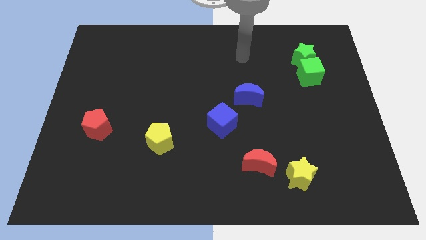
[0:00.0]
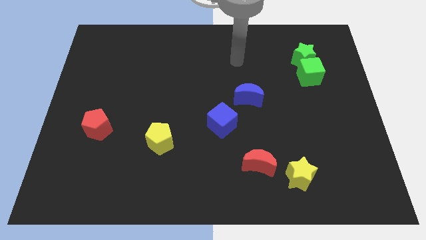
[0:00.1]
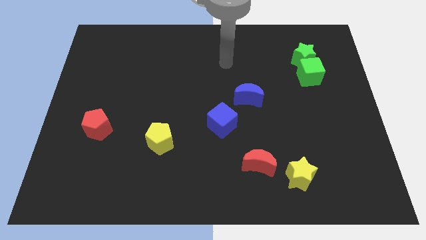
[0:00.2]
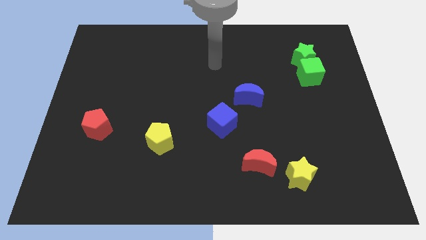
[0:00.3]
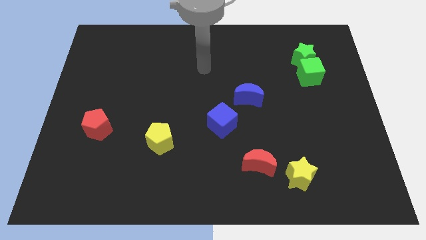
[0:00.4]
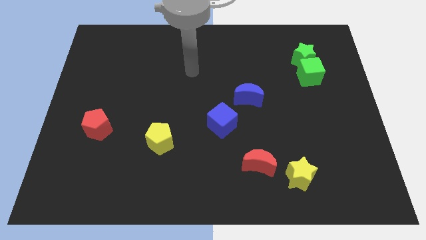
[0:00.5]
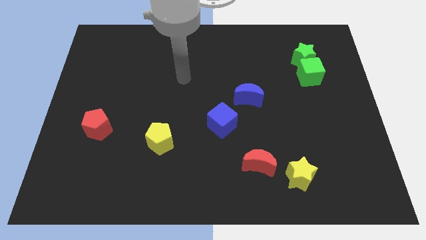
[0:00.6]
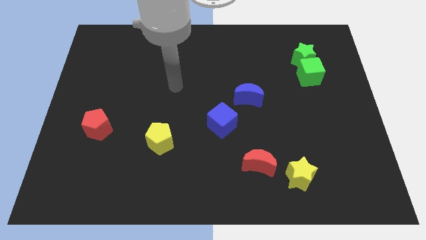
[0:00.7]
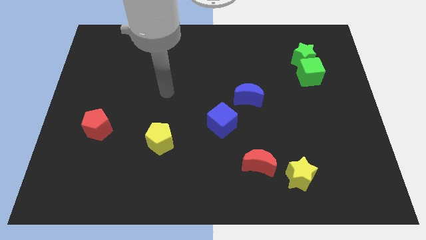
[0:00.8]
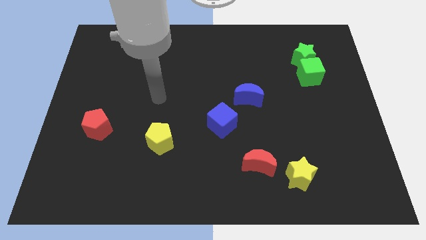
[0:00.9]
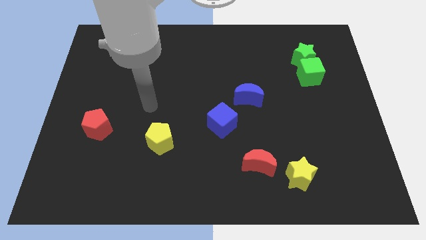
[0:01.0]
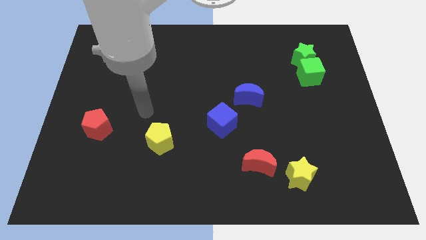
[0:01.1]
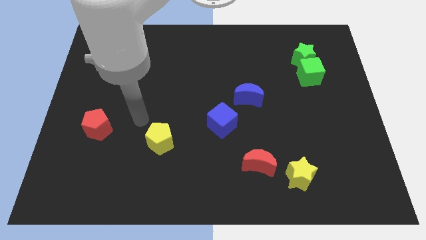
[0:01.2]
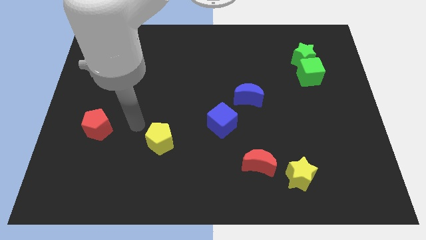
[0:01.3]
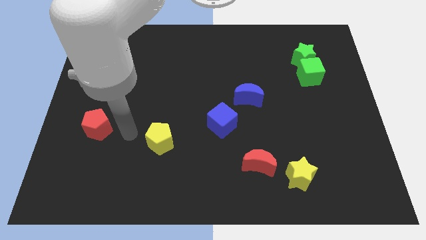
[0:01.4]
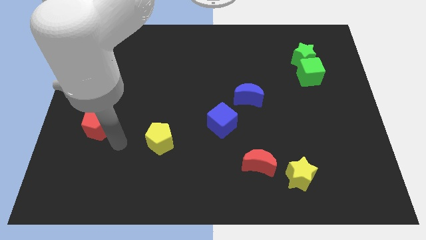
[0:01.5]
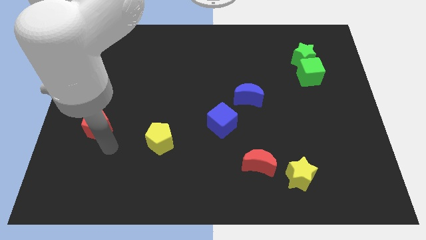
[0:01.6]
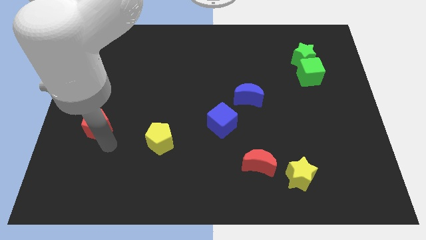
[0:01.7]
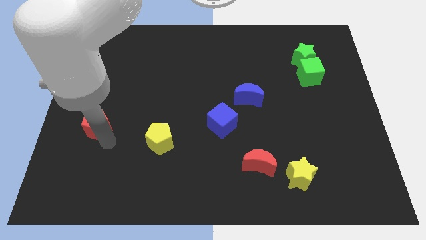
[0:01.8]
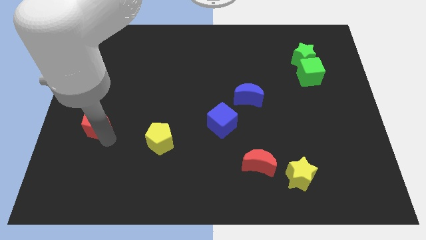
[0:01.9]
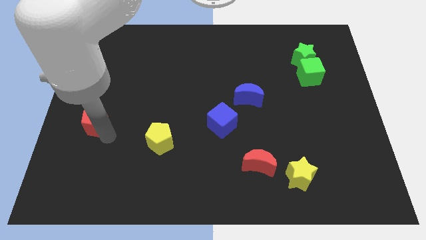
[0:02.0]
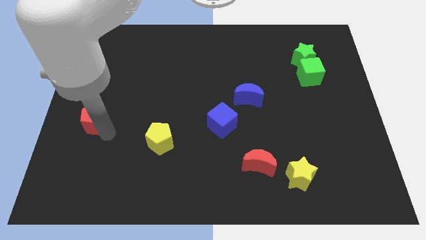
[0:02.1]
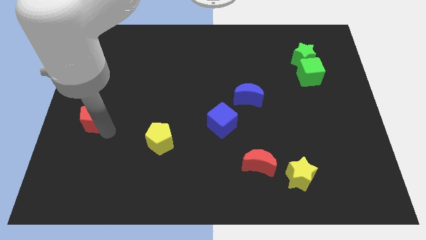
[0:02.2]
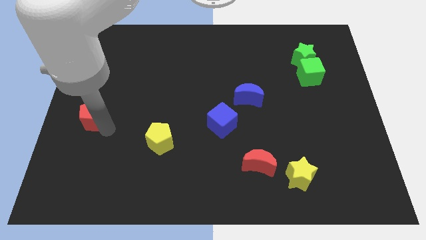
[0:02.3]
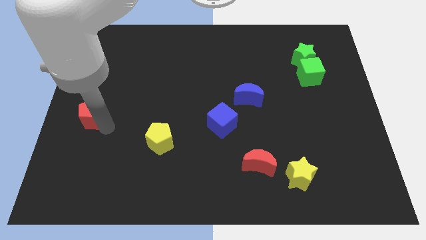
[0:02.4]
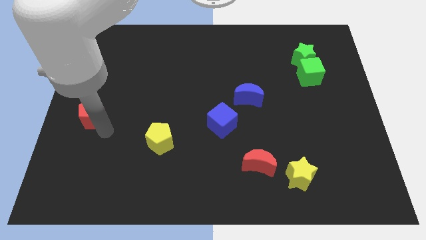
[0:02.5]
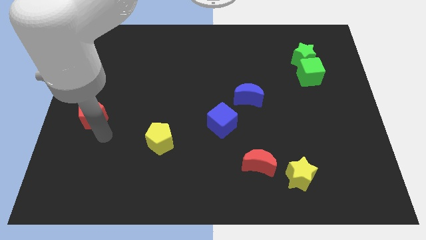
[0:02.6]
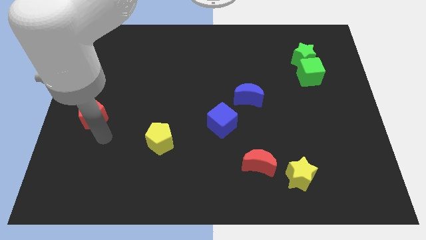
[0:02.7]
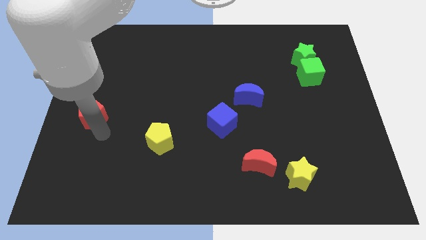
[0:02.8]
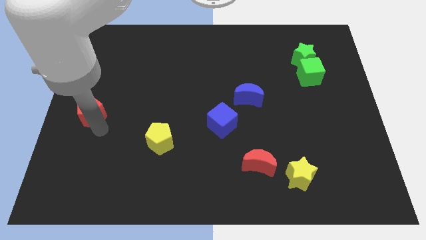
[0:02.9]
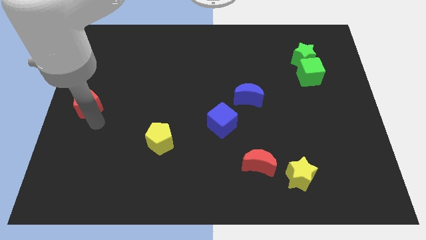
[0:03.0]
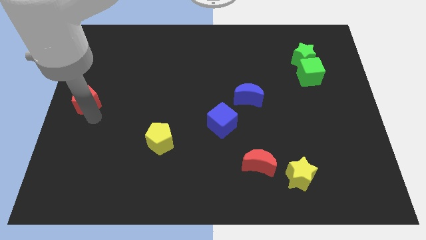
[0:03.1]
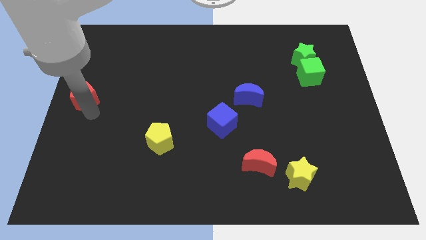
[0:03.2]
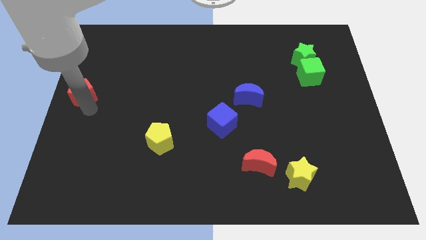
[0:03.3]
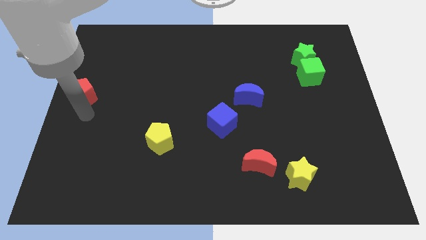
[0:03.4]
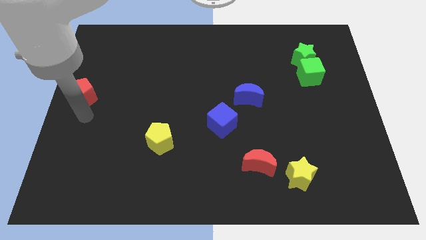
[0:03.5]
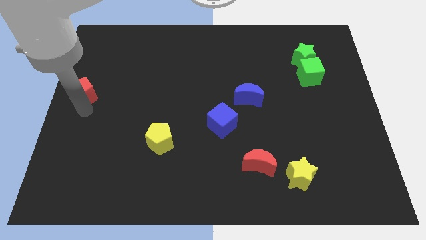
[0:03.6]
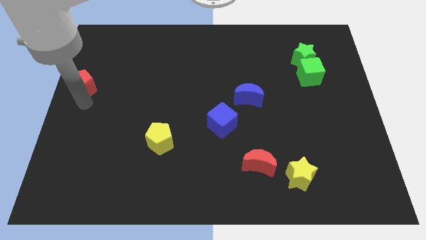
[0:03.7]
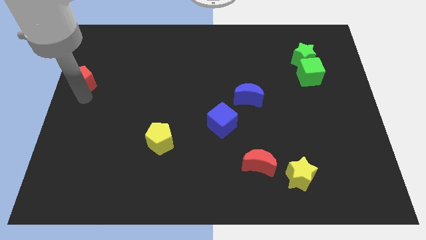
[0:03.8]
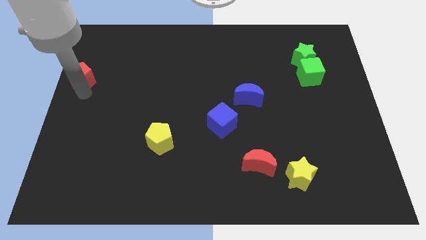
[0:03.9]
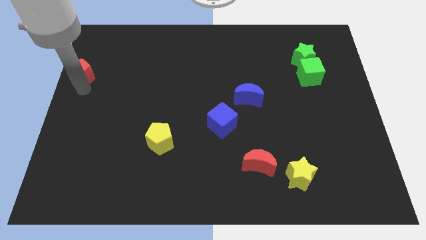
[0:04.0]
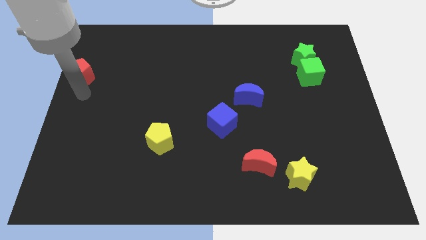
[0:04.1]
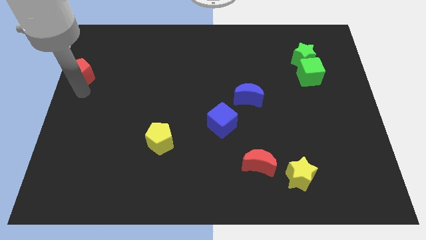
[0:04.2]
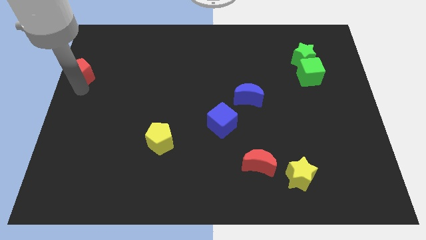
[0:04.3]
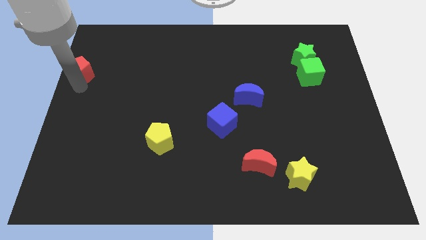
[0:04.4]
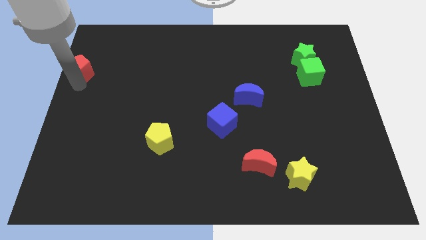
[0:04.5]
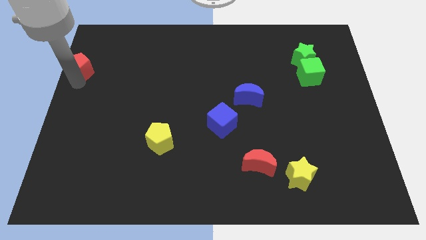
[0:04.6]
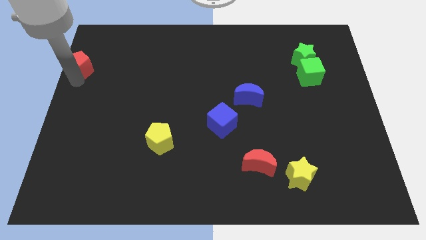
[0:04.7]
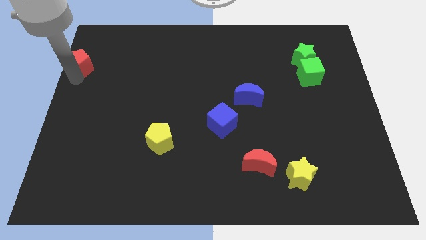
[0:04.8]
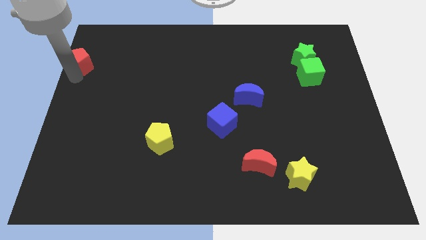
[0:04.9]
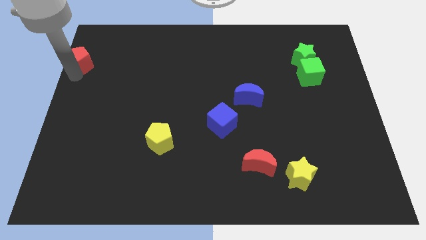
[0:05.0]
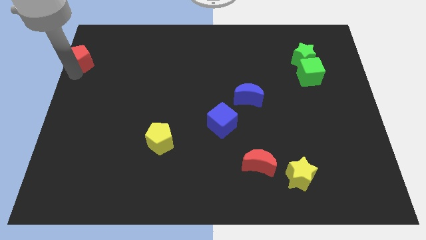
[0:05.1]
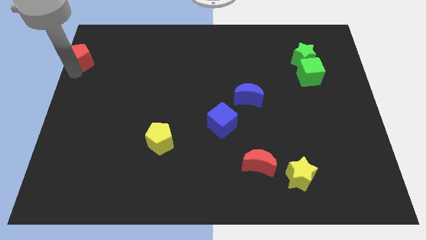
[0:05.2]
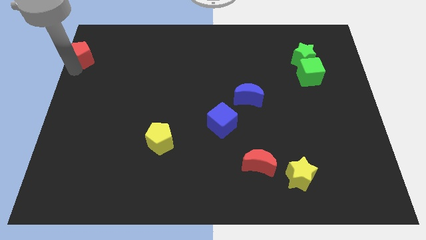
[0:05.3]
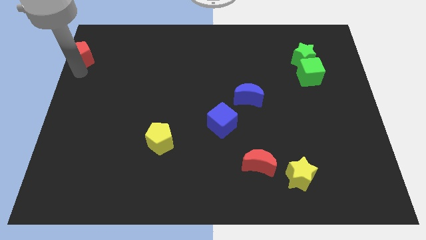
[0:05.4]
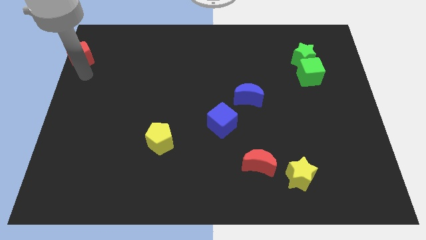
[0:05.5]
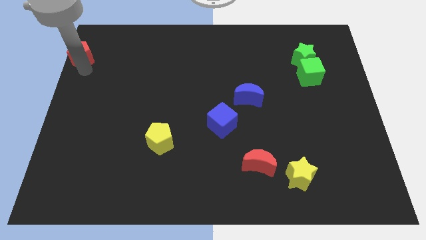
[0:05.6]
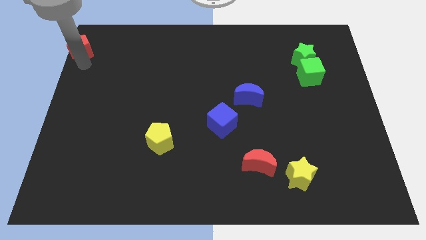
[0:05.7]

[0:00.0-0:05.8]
push the red pentagon to the top left of the board

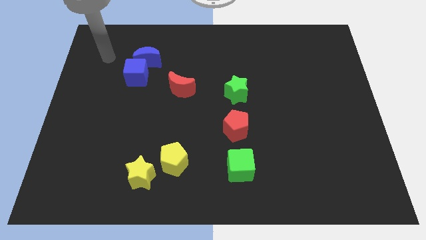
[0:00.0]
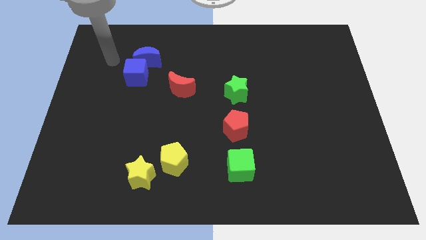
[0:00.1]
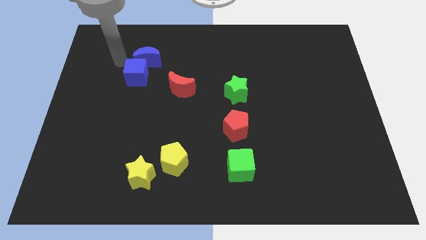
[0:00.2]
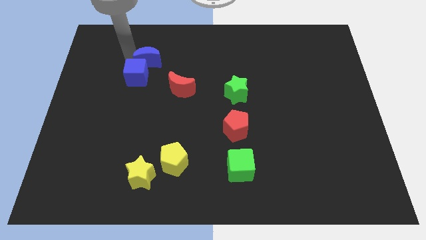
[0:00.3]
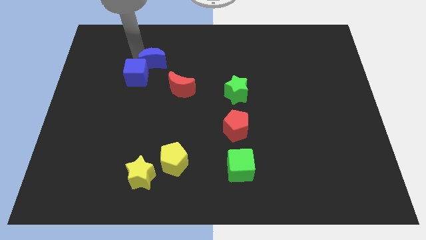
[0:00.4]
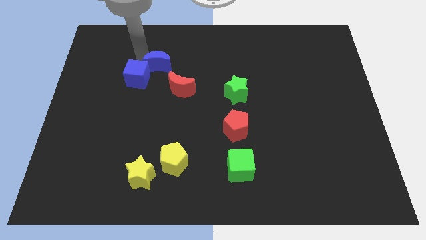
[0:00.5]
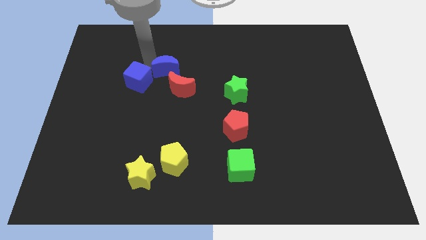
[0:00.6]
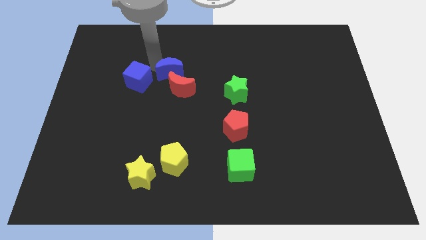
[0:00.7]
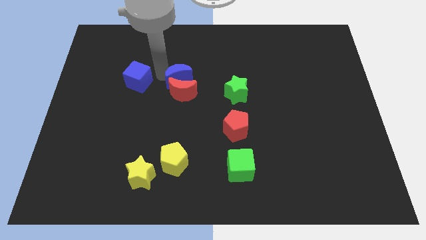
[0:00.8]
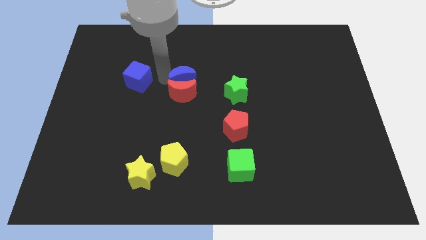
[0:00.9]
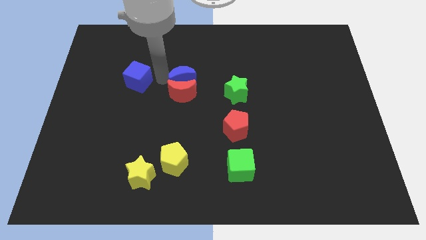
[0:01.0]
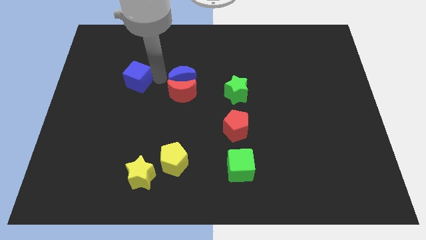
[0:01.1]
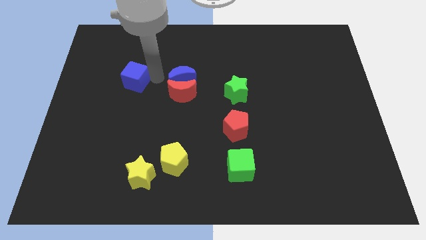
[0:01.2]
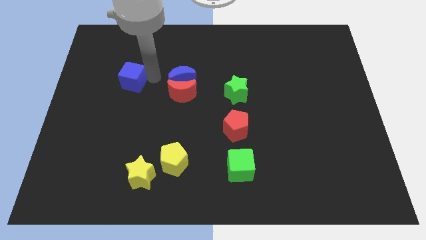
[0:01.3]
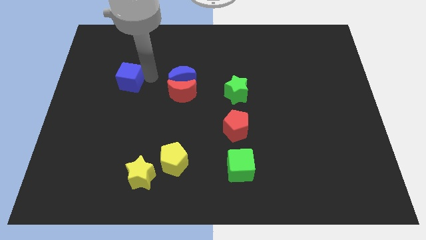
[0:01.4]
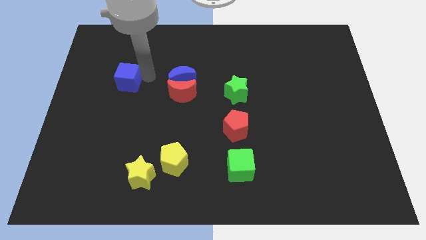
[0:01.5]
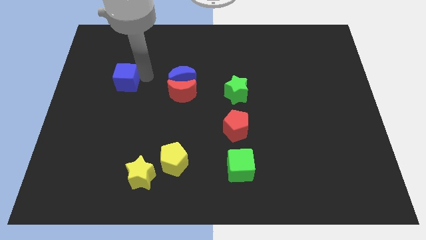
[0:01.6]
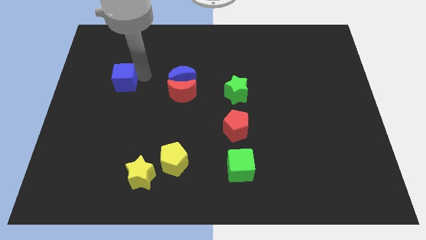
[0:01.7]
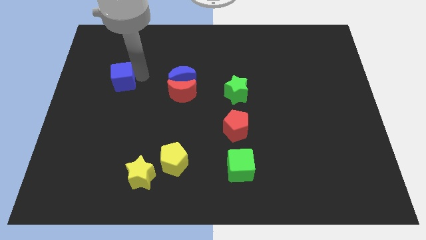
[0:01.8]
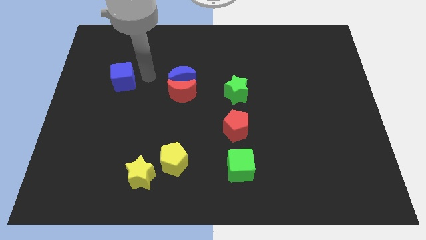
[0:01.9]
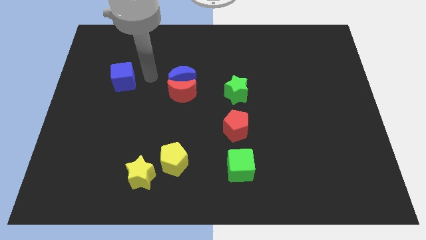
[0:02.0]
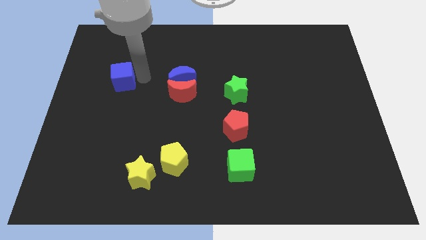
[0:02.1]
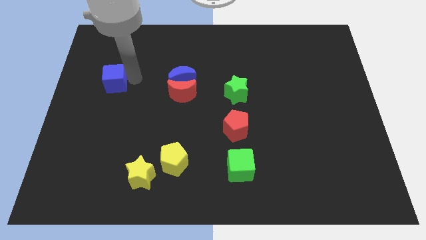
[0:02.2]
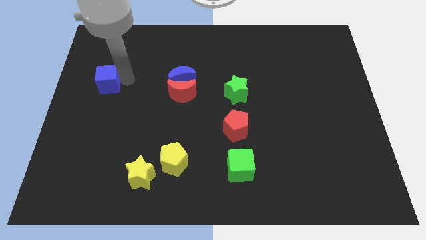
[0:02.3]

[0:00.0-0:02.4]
slide the blue cube to the left side of the board
